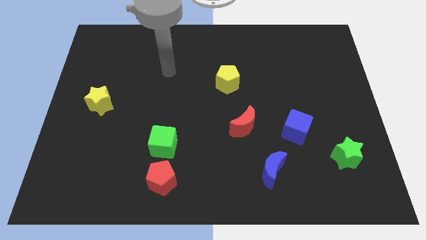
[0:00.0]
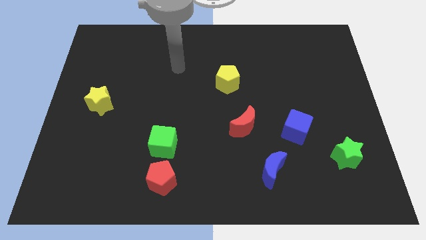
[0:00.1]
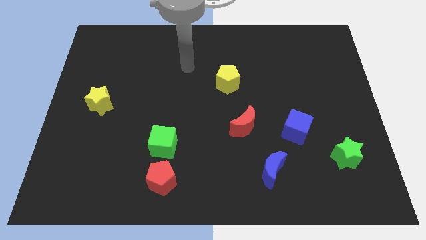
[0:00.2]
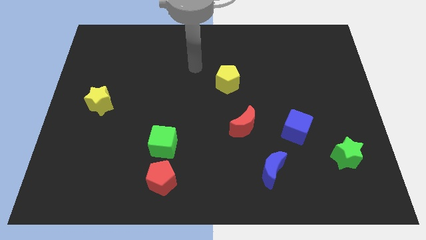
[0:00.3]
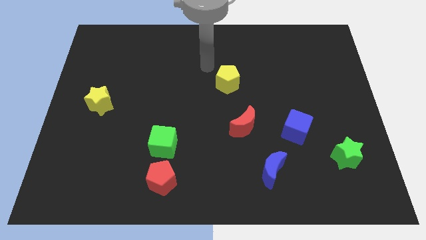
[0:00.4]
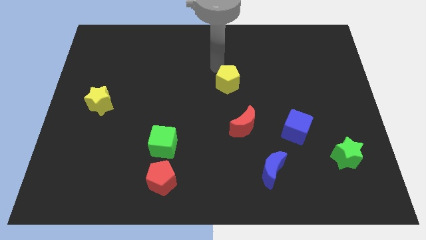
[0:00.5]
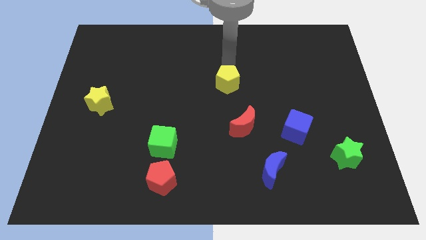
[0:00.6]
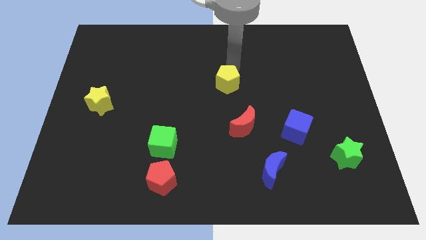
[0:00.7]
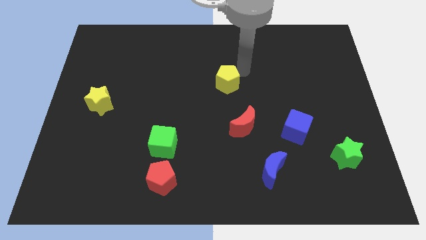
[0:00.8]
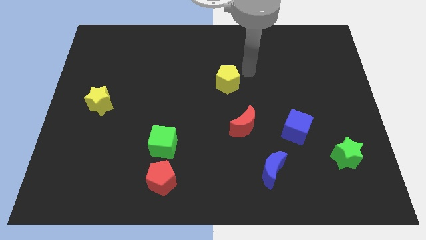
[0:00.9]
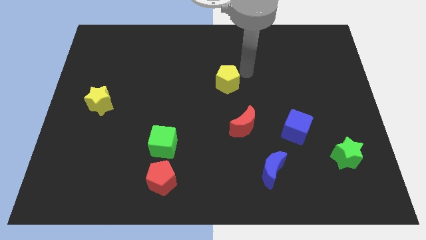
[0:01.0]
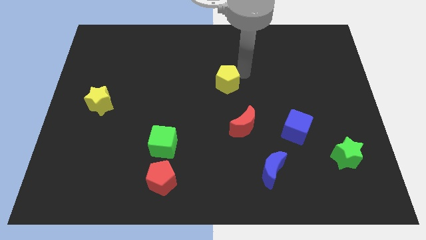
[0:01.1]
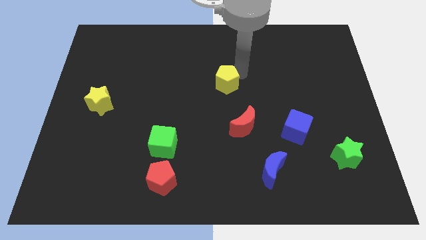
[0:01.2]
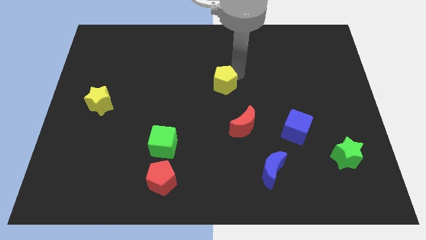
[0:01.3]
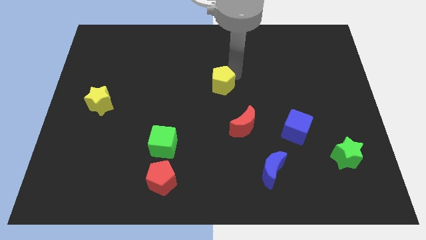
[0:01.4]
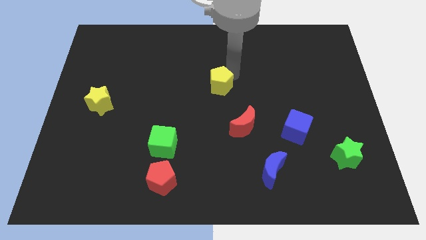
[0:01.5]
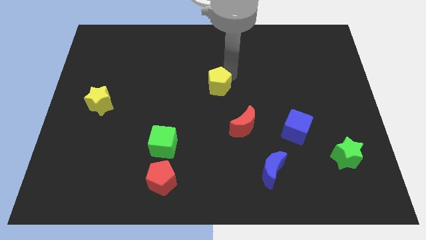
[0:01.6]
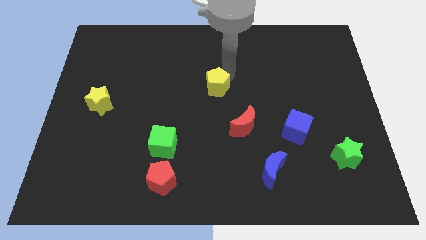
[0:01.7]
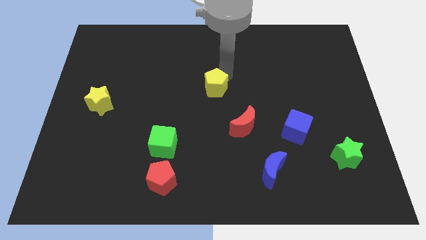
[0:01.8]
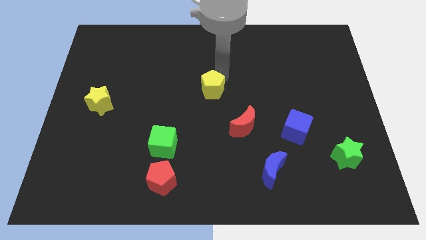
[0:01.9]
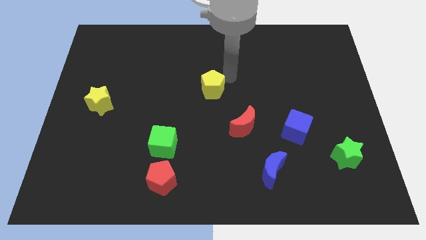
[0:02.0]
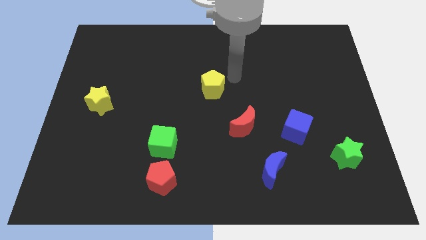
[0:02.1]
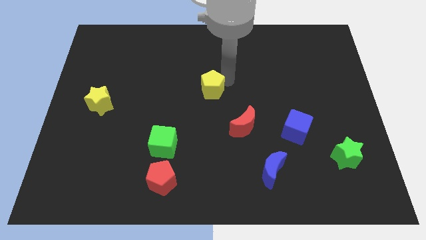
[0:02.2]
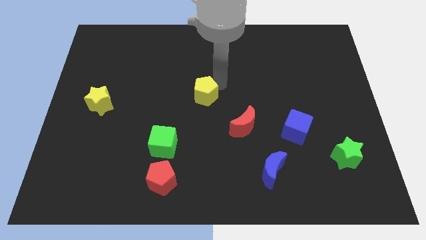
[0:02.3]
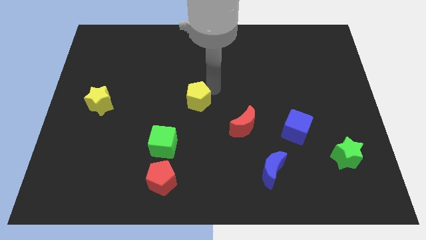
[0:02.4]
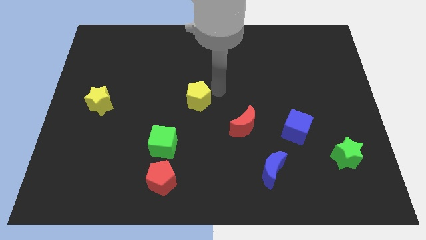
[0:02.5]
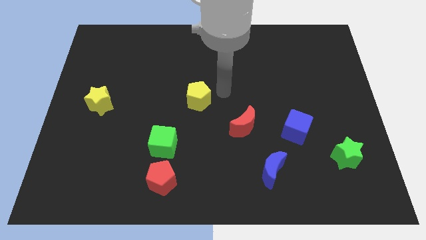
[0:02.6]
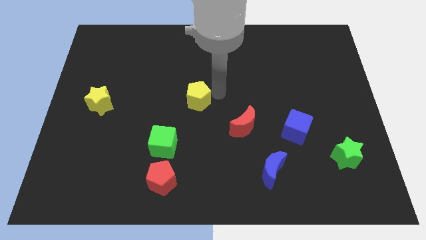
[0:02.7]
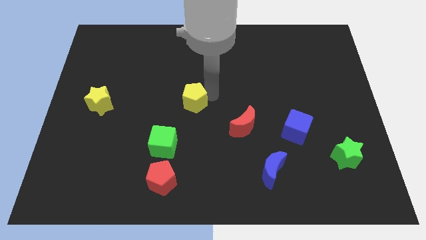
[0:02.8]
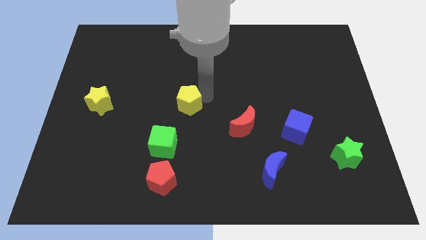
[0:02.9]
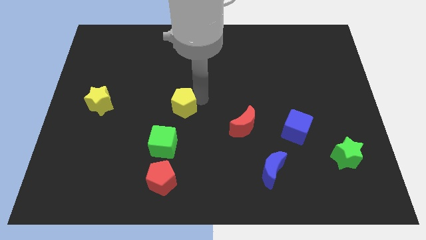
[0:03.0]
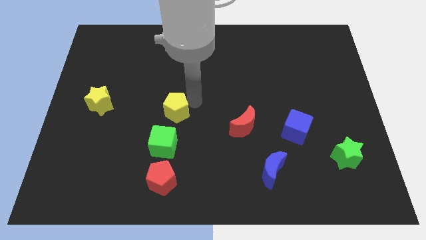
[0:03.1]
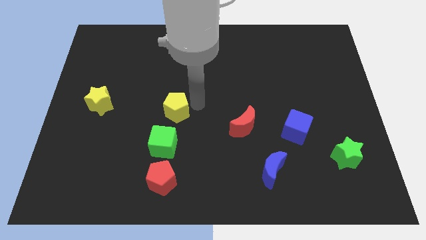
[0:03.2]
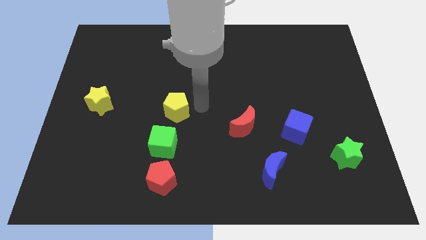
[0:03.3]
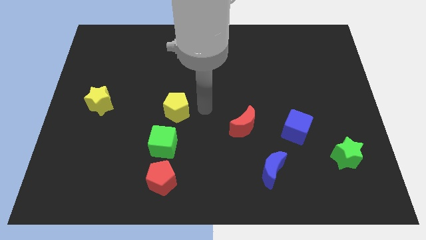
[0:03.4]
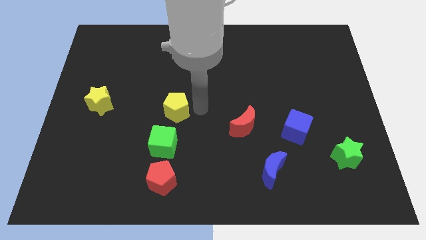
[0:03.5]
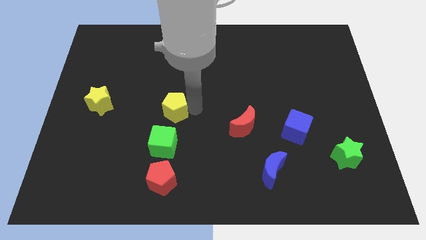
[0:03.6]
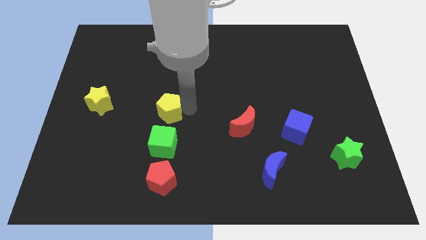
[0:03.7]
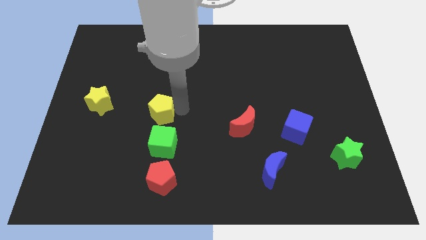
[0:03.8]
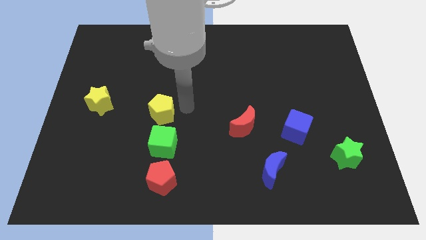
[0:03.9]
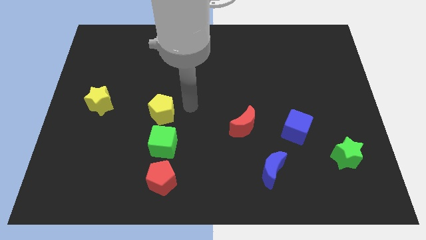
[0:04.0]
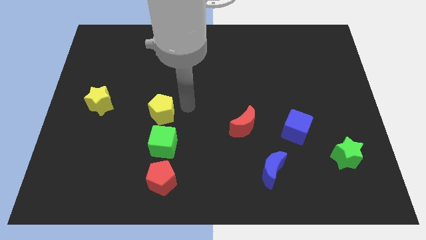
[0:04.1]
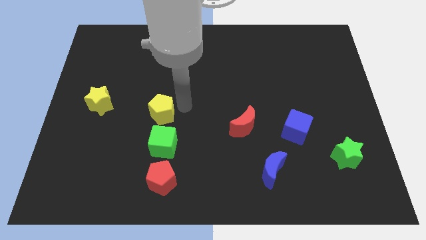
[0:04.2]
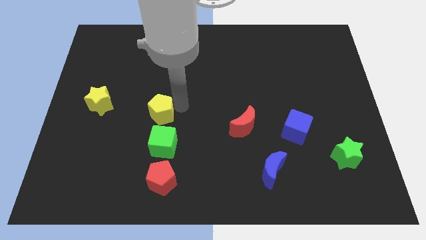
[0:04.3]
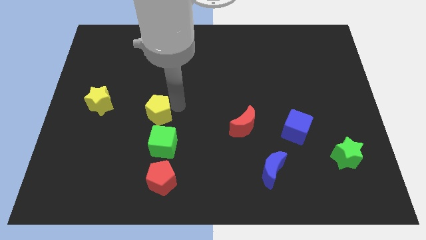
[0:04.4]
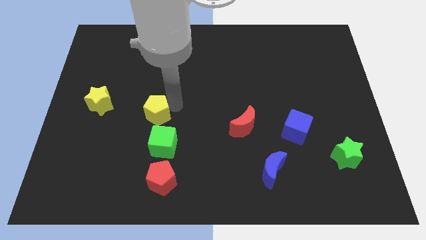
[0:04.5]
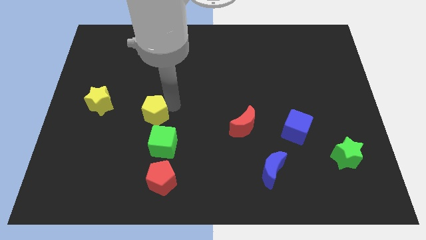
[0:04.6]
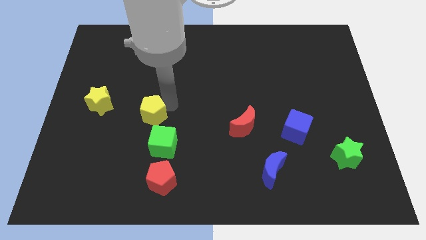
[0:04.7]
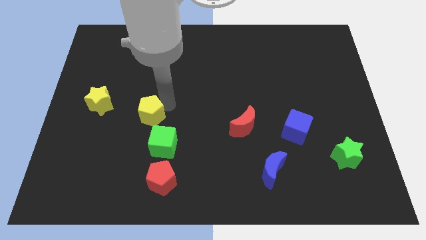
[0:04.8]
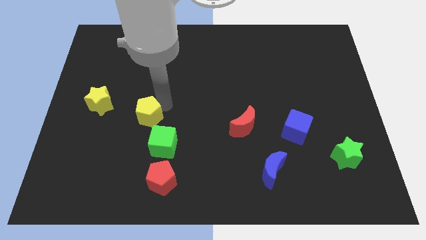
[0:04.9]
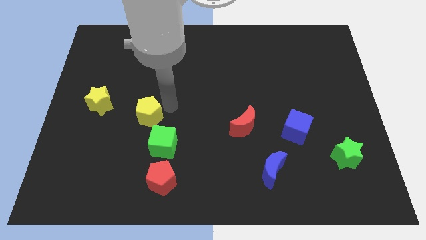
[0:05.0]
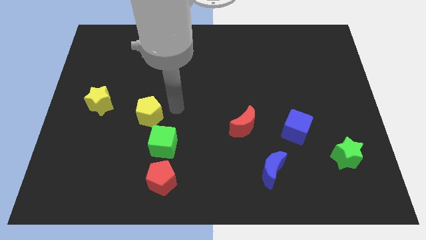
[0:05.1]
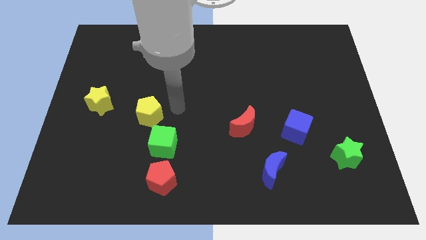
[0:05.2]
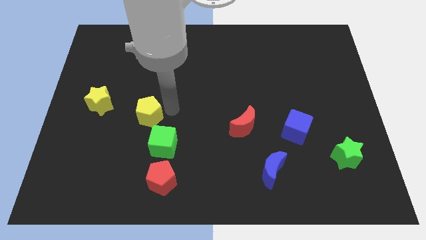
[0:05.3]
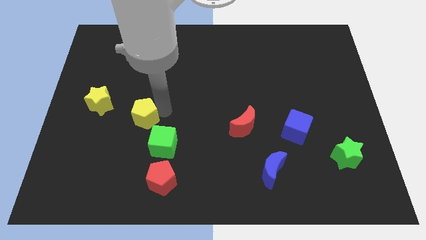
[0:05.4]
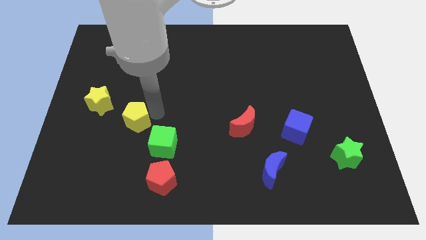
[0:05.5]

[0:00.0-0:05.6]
move the yellow pentagon to the bottom right of the yellow star

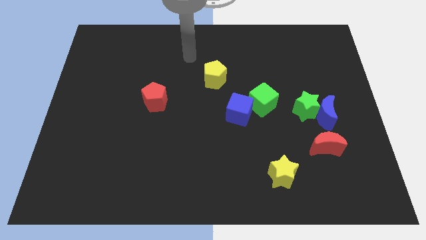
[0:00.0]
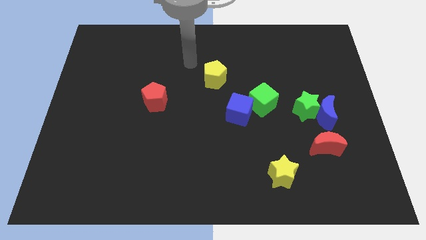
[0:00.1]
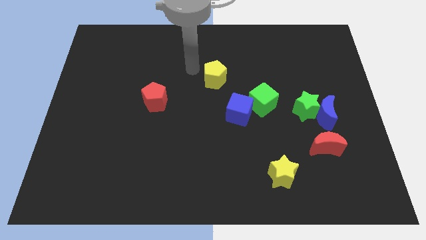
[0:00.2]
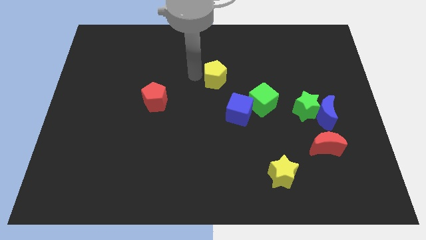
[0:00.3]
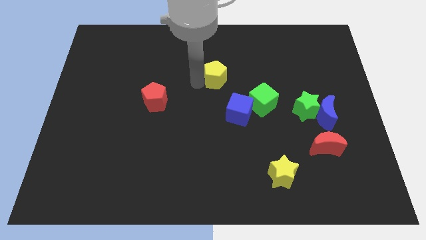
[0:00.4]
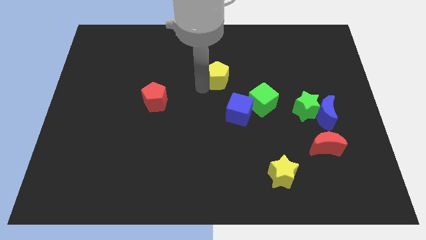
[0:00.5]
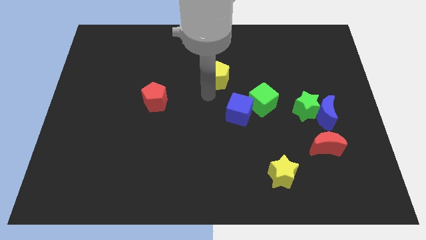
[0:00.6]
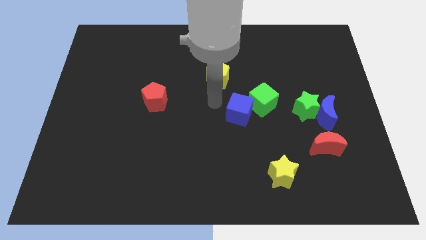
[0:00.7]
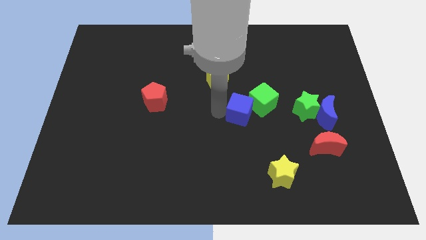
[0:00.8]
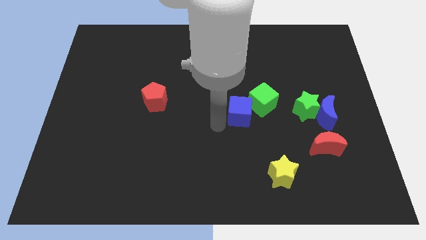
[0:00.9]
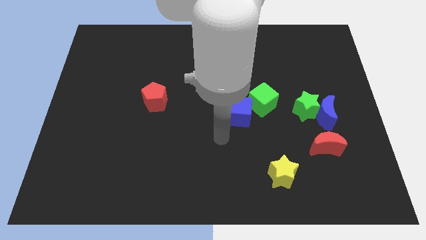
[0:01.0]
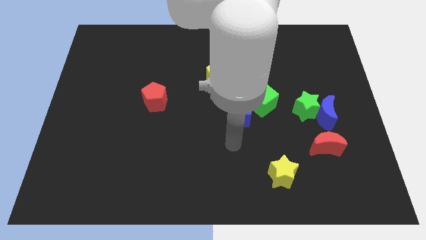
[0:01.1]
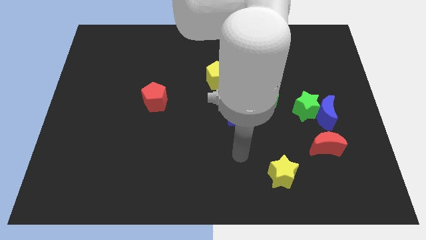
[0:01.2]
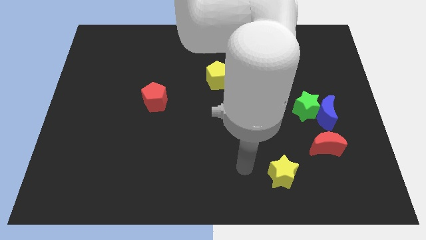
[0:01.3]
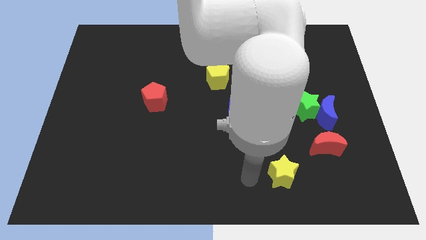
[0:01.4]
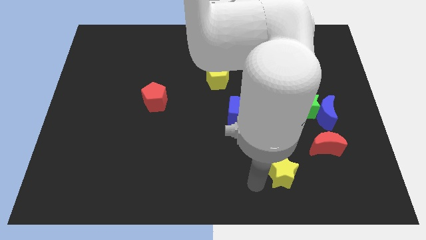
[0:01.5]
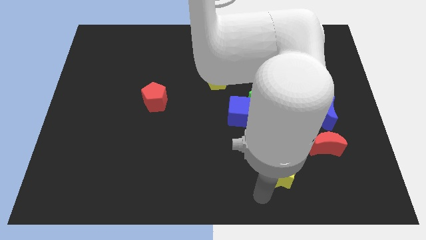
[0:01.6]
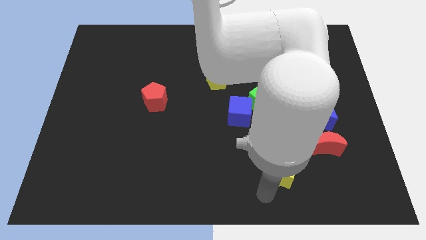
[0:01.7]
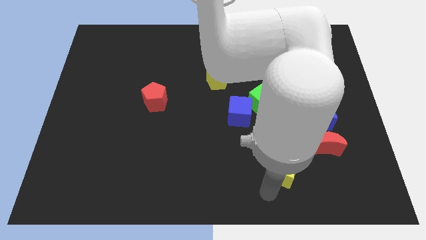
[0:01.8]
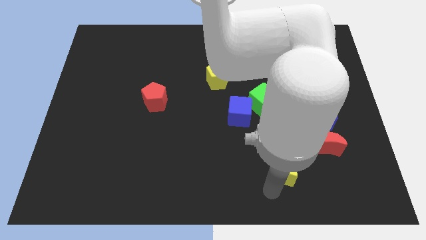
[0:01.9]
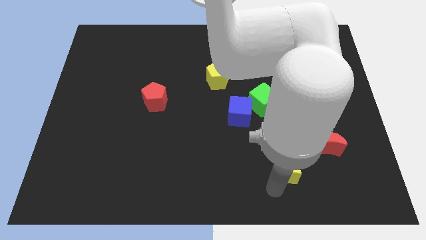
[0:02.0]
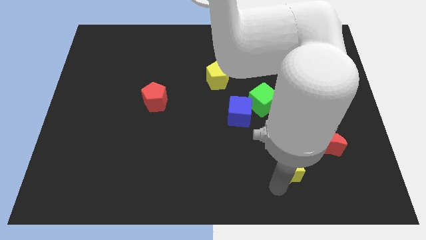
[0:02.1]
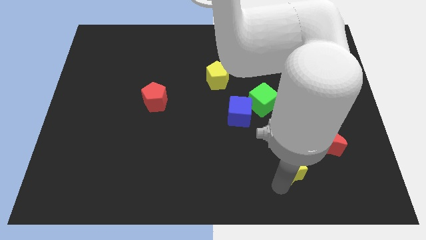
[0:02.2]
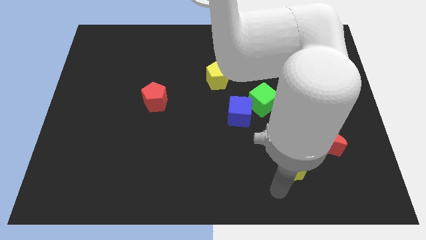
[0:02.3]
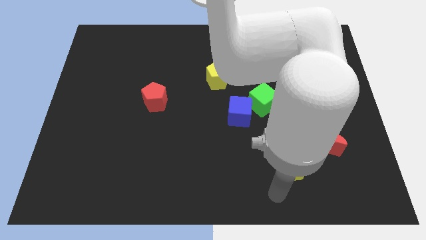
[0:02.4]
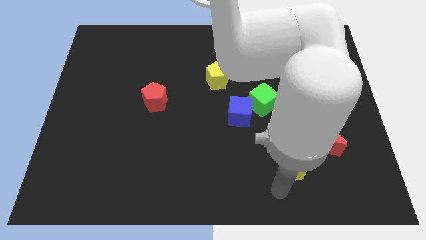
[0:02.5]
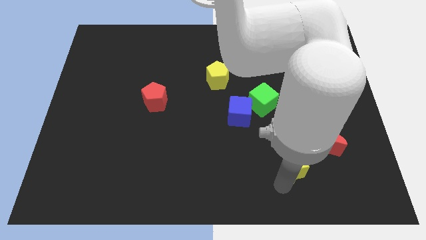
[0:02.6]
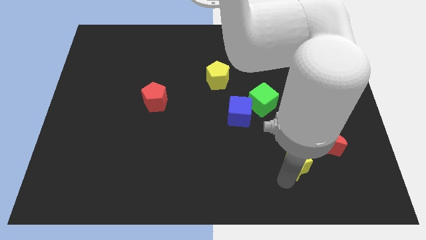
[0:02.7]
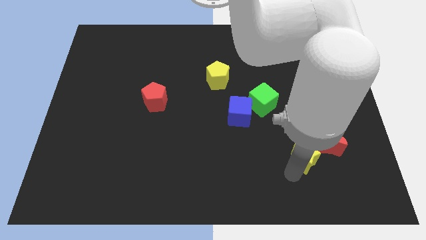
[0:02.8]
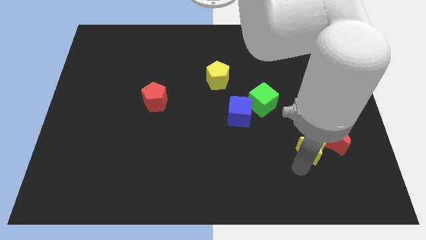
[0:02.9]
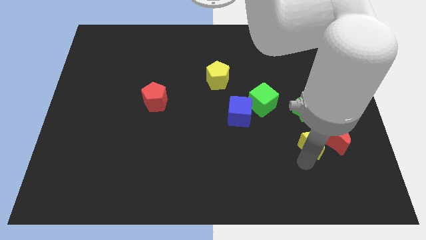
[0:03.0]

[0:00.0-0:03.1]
move the yellow star to the top left of the red moon
